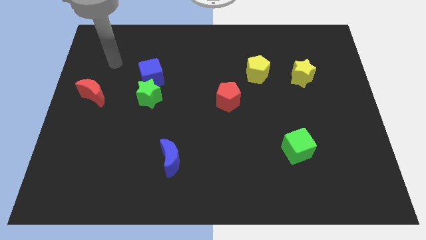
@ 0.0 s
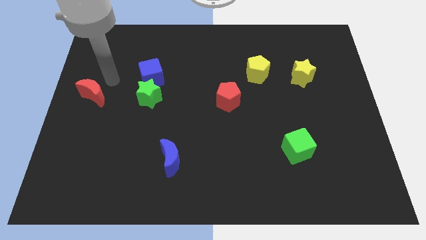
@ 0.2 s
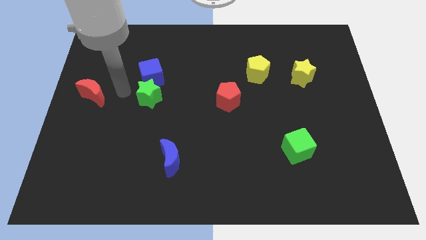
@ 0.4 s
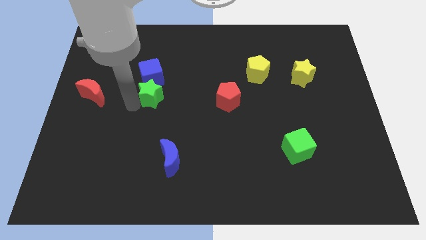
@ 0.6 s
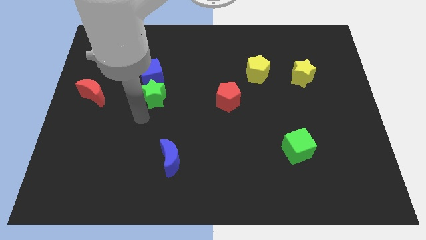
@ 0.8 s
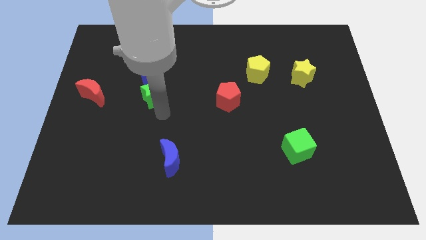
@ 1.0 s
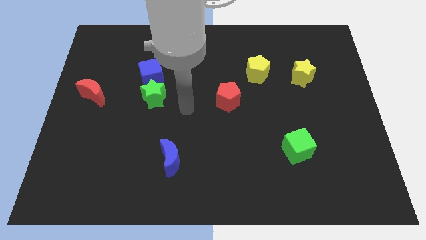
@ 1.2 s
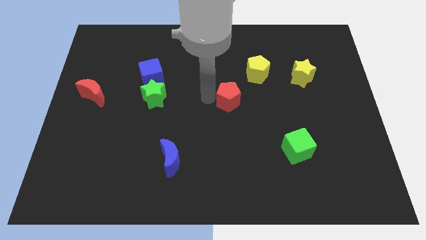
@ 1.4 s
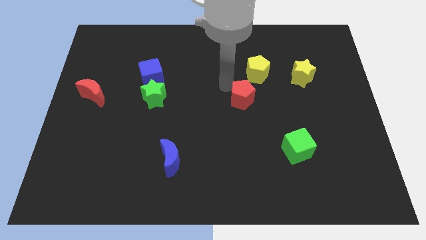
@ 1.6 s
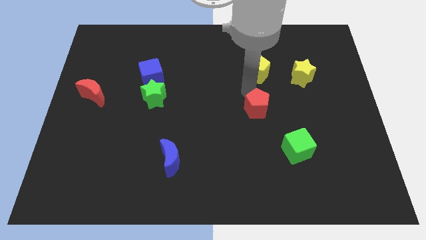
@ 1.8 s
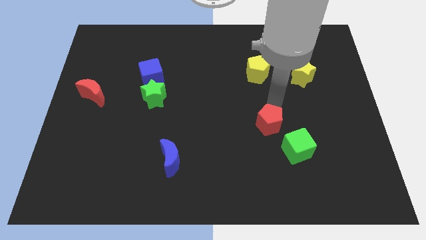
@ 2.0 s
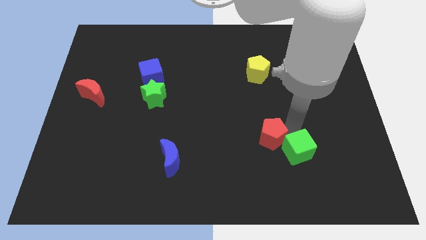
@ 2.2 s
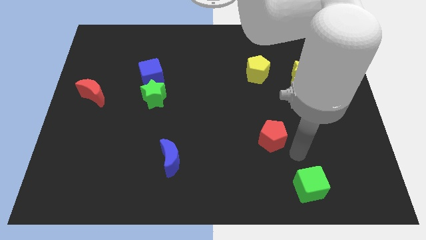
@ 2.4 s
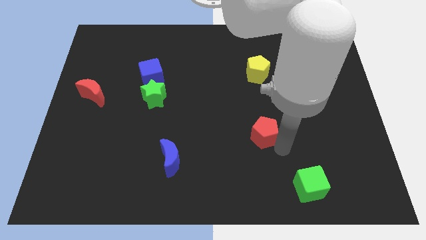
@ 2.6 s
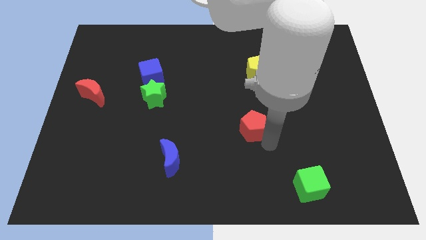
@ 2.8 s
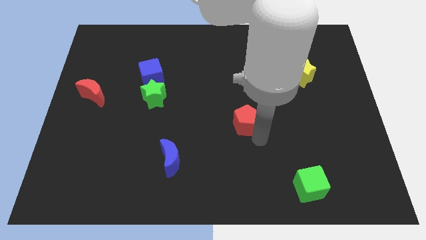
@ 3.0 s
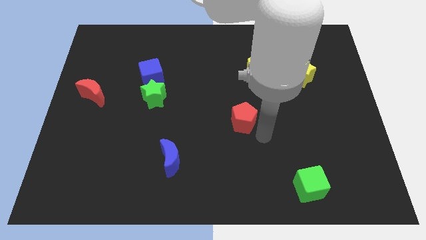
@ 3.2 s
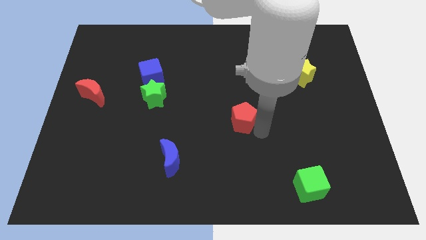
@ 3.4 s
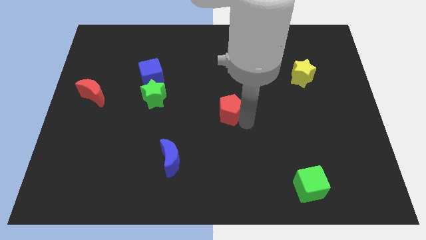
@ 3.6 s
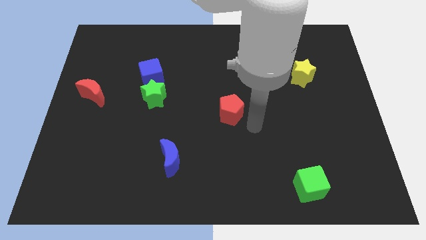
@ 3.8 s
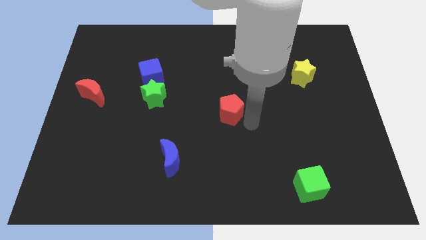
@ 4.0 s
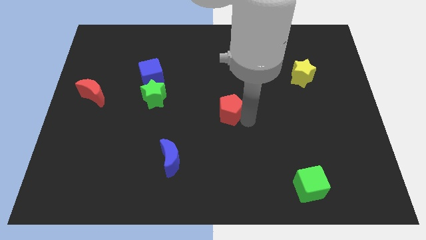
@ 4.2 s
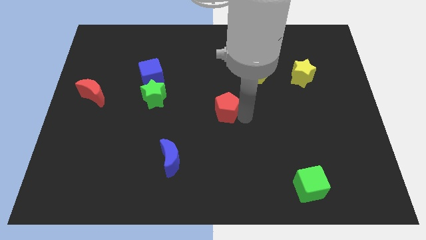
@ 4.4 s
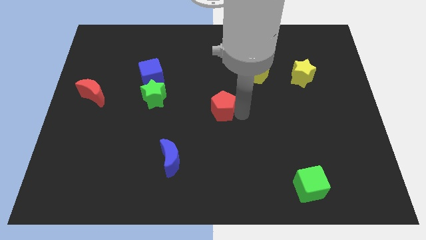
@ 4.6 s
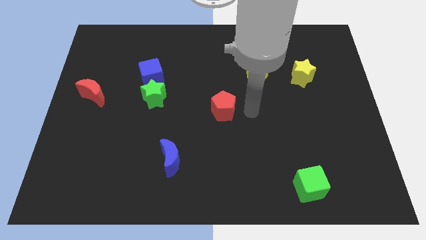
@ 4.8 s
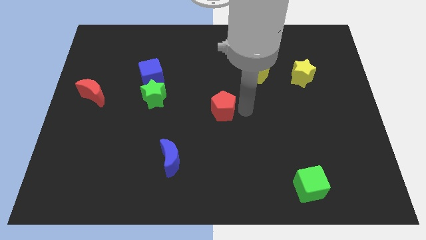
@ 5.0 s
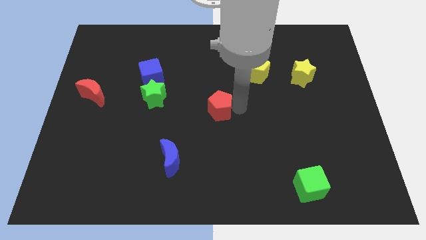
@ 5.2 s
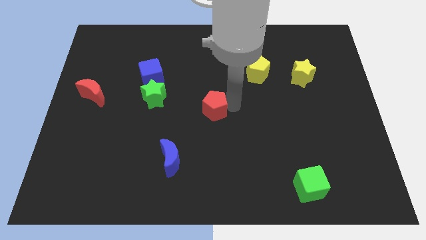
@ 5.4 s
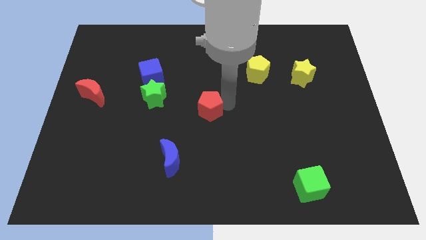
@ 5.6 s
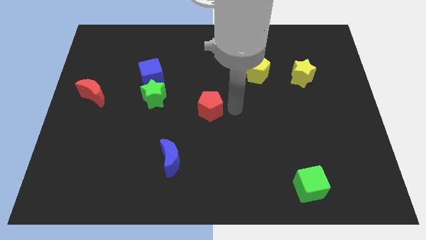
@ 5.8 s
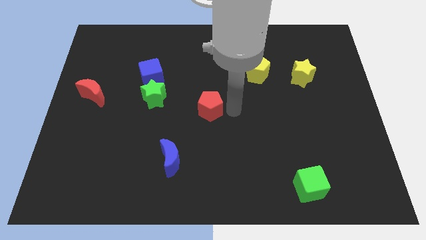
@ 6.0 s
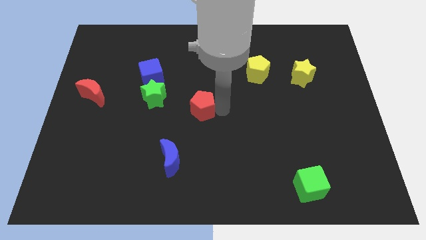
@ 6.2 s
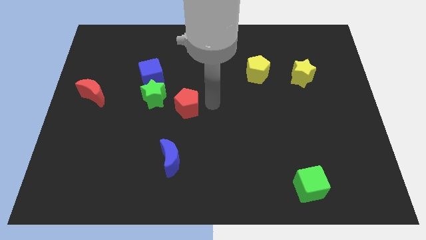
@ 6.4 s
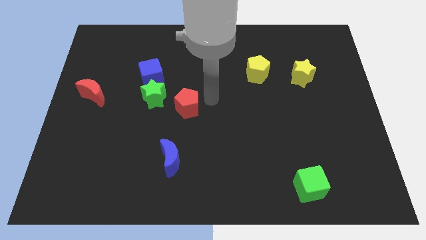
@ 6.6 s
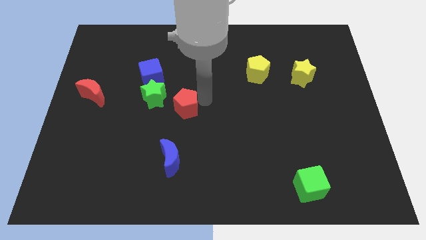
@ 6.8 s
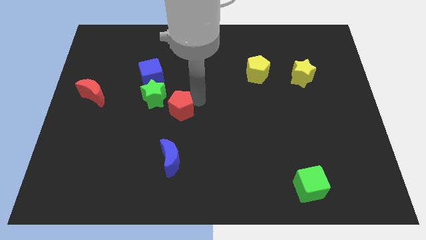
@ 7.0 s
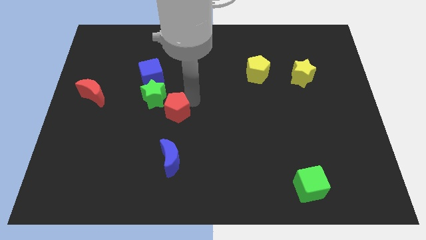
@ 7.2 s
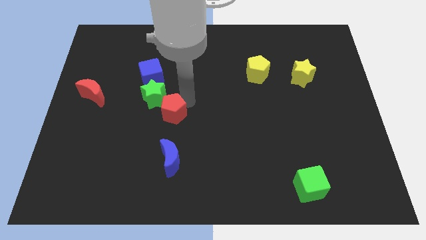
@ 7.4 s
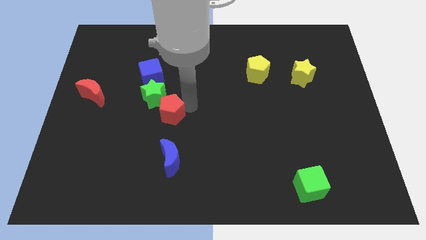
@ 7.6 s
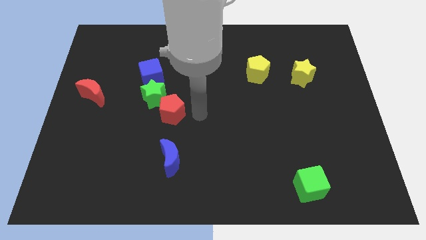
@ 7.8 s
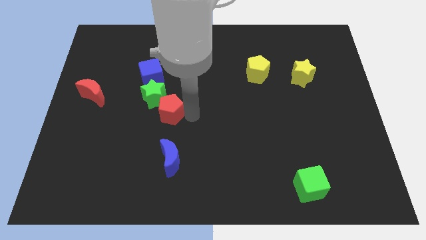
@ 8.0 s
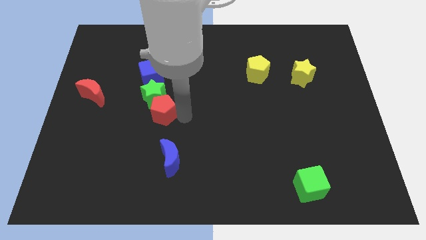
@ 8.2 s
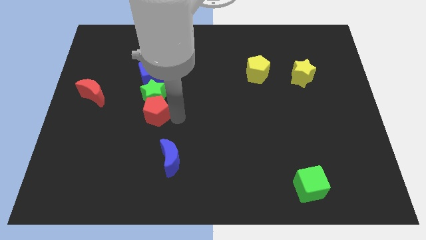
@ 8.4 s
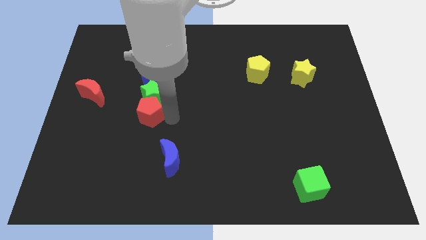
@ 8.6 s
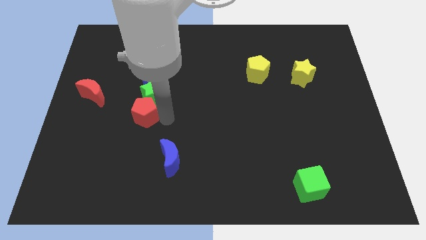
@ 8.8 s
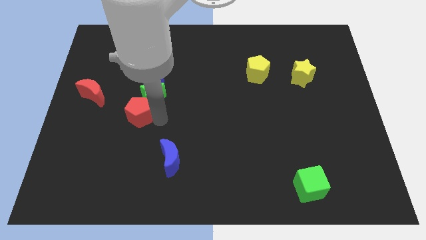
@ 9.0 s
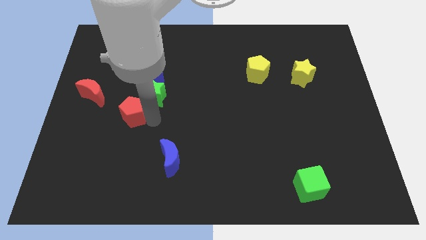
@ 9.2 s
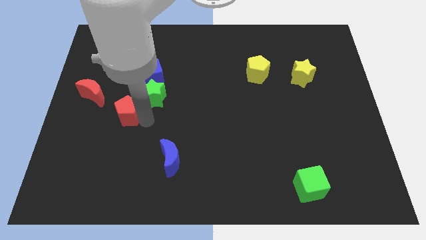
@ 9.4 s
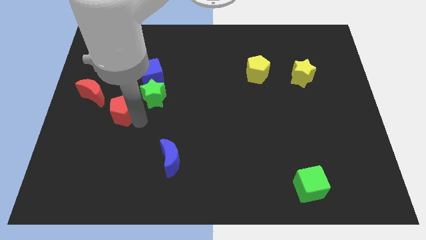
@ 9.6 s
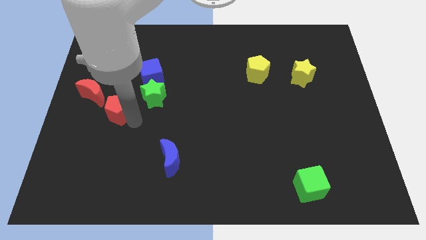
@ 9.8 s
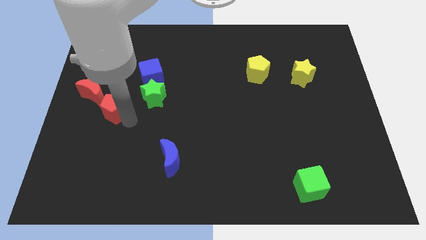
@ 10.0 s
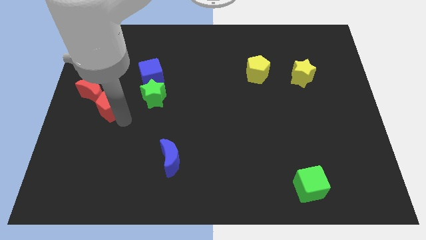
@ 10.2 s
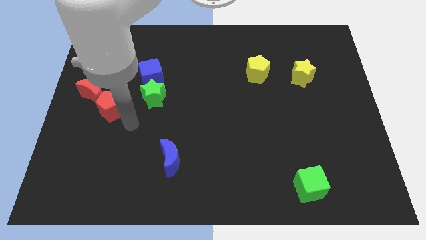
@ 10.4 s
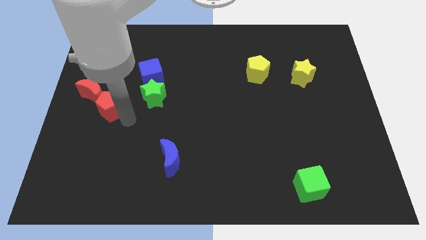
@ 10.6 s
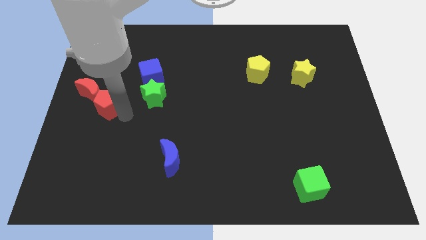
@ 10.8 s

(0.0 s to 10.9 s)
move the red pentagon close to the red moon

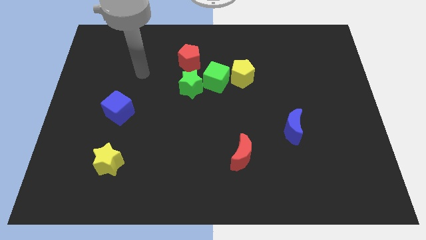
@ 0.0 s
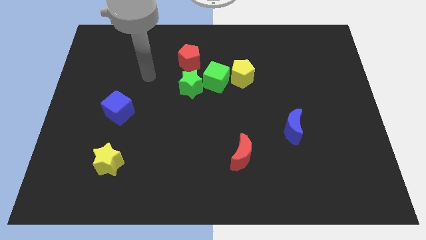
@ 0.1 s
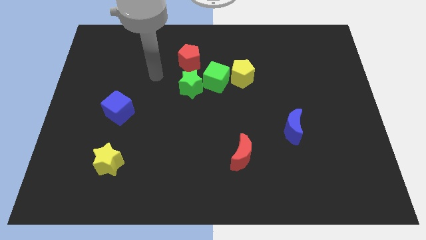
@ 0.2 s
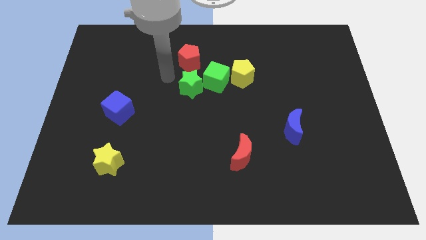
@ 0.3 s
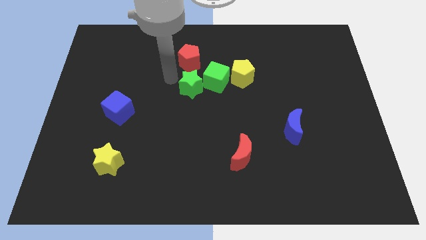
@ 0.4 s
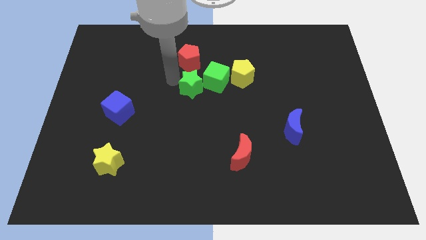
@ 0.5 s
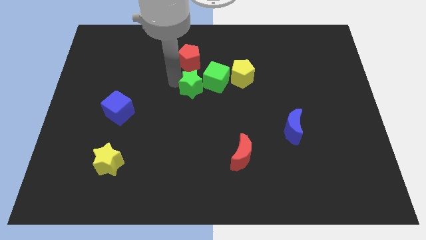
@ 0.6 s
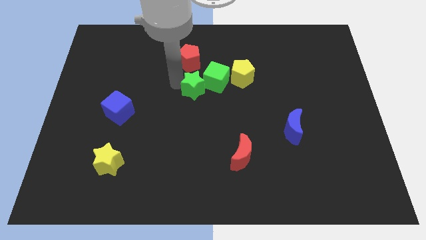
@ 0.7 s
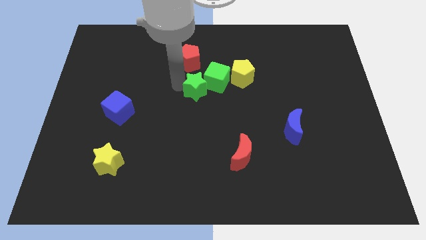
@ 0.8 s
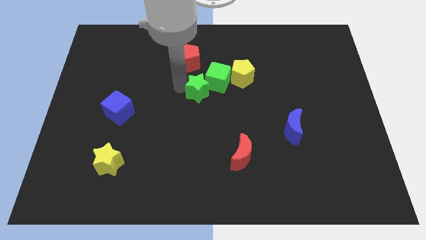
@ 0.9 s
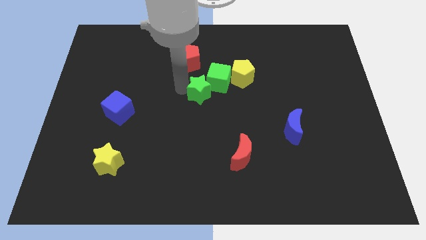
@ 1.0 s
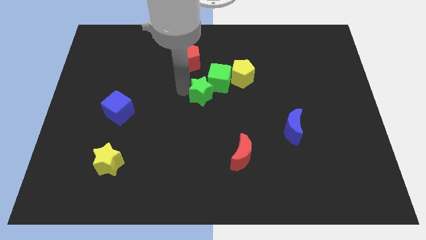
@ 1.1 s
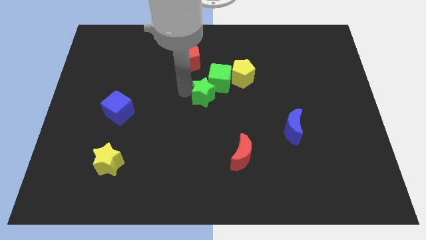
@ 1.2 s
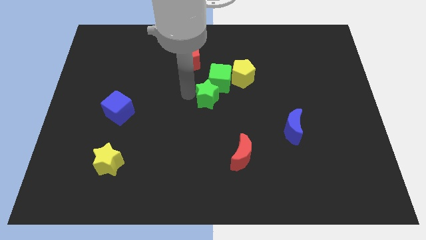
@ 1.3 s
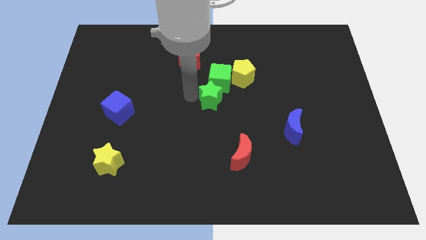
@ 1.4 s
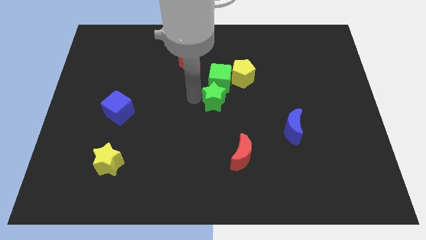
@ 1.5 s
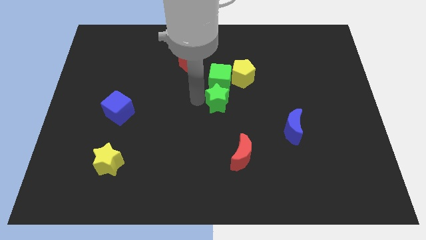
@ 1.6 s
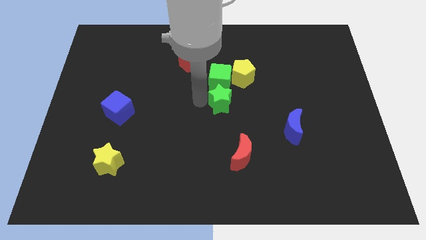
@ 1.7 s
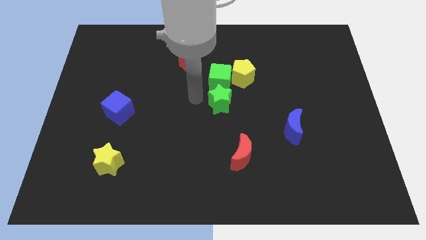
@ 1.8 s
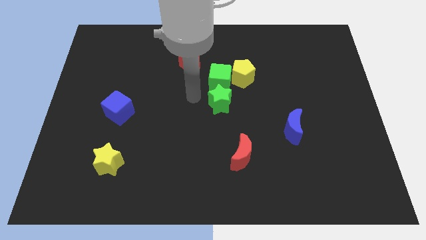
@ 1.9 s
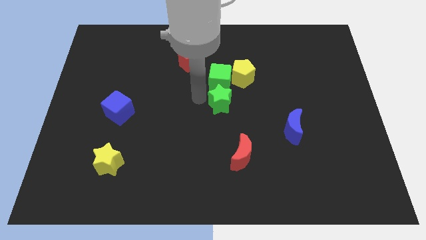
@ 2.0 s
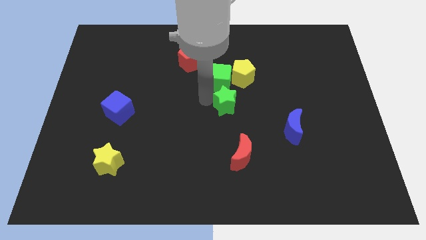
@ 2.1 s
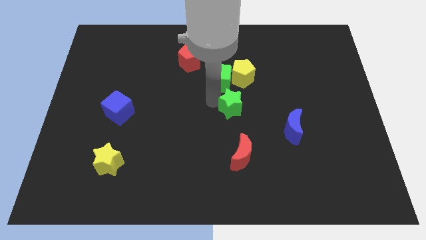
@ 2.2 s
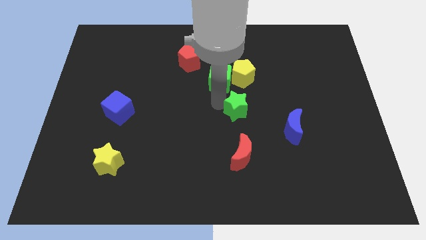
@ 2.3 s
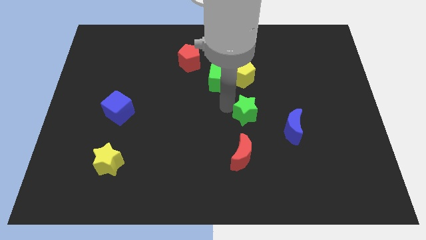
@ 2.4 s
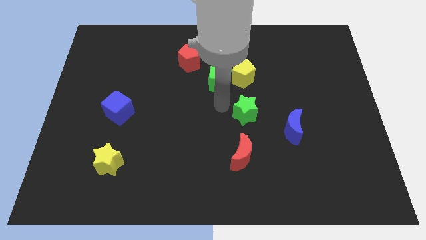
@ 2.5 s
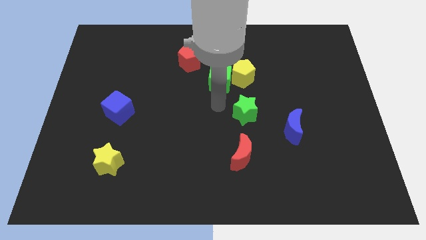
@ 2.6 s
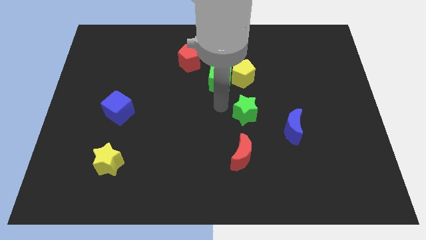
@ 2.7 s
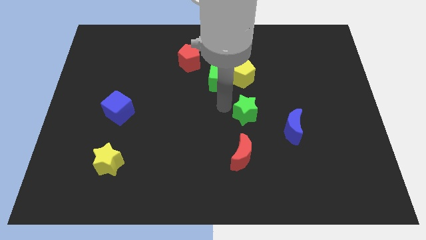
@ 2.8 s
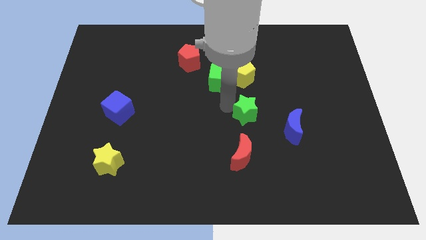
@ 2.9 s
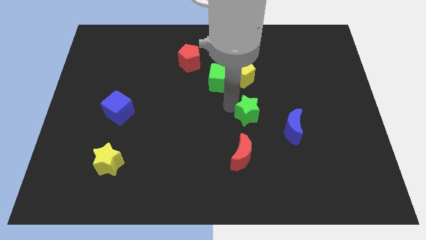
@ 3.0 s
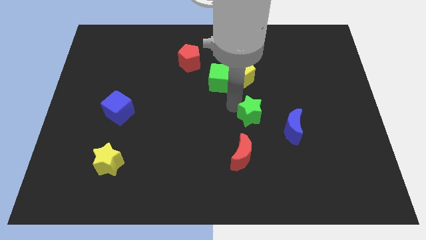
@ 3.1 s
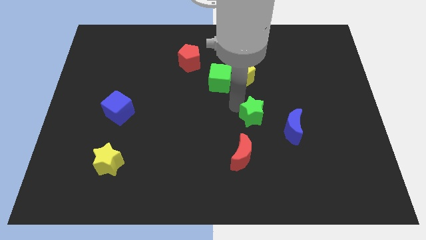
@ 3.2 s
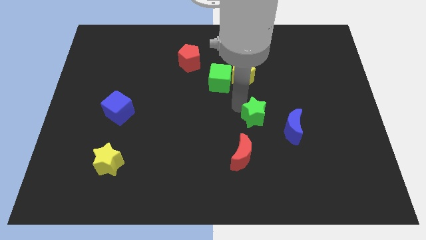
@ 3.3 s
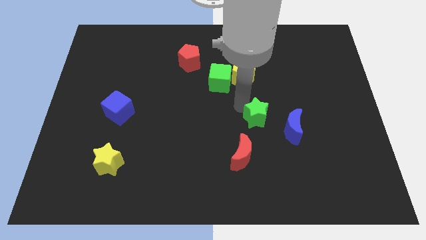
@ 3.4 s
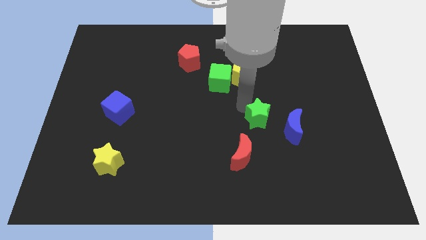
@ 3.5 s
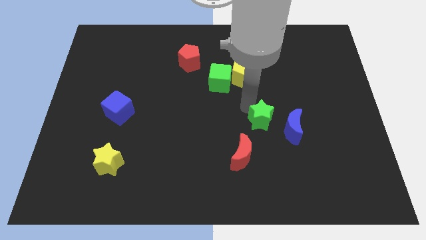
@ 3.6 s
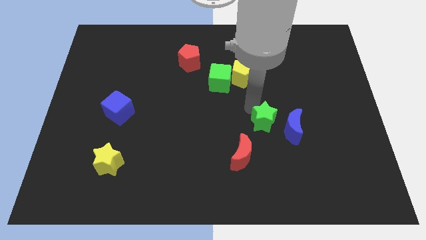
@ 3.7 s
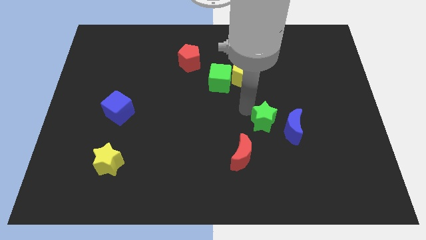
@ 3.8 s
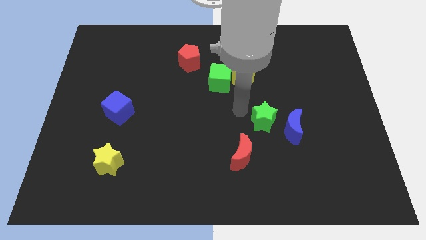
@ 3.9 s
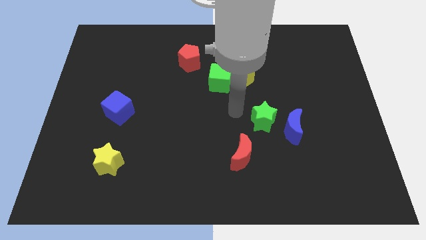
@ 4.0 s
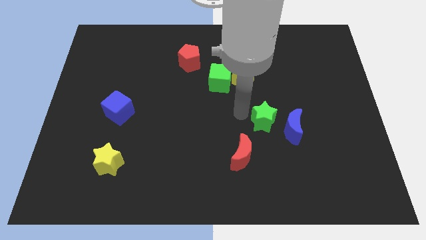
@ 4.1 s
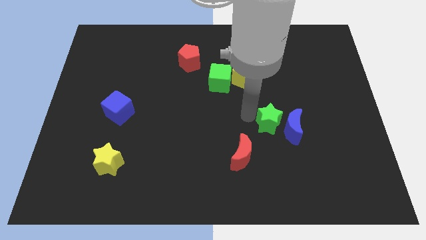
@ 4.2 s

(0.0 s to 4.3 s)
put the green star next to the blue moon
